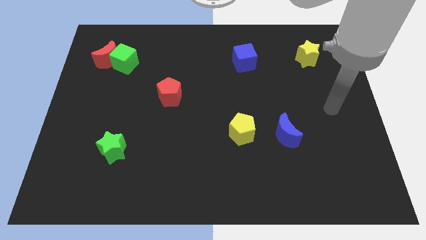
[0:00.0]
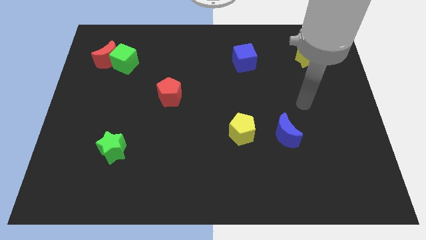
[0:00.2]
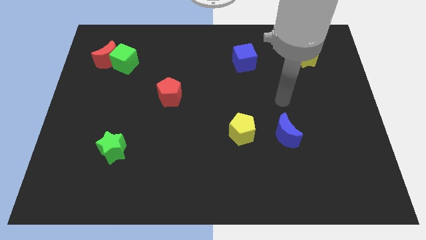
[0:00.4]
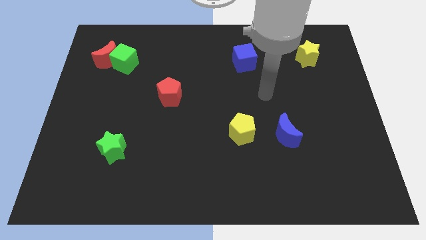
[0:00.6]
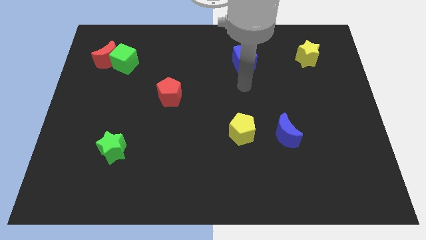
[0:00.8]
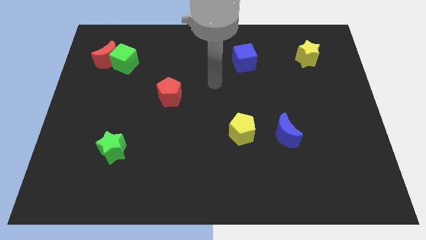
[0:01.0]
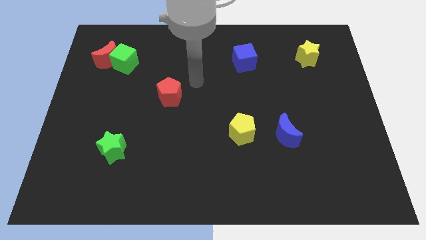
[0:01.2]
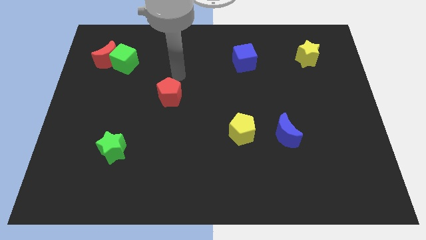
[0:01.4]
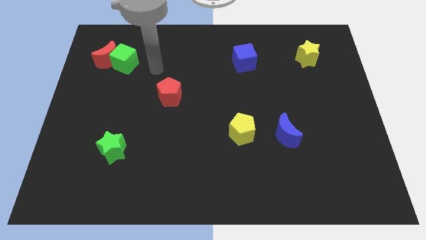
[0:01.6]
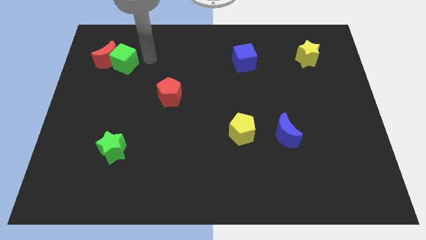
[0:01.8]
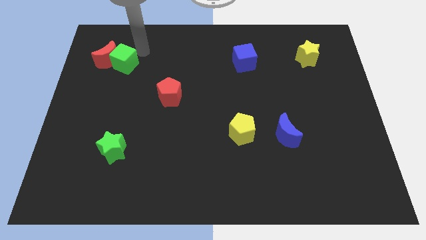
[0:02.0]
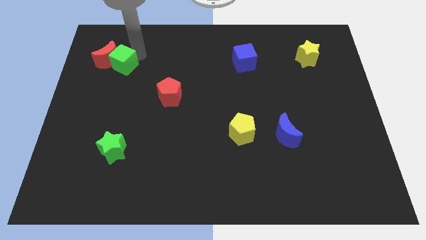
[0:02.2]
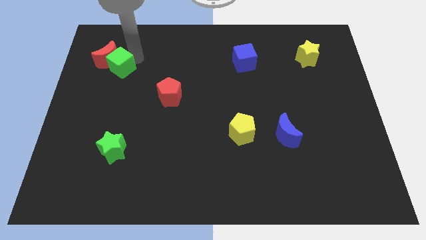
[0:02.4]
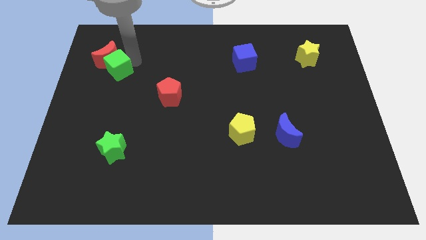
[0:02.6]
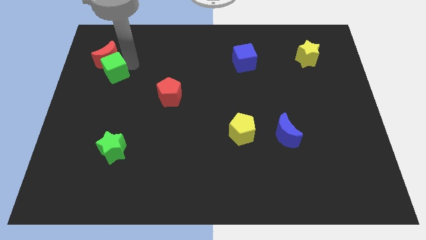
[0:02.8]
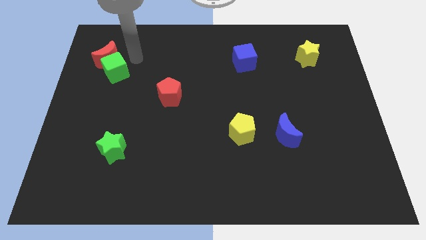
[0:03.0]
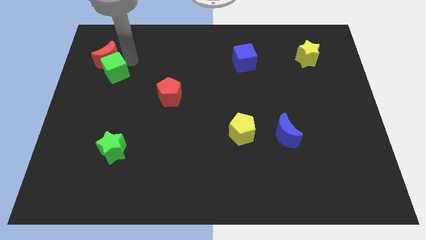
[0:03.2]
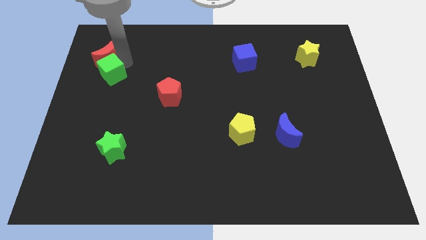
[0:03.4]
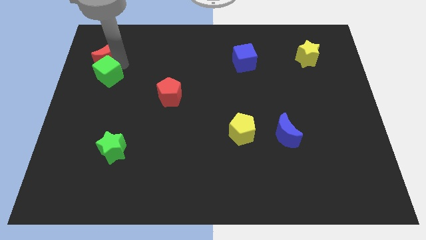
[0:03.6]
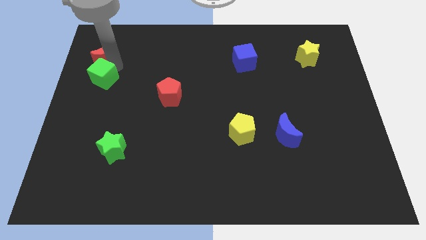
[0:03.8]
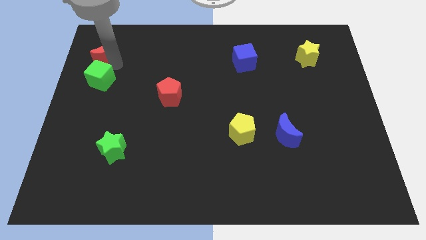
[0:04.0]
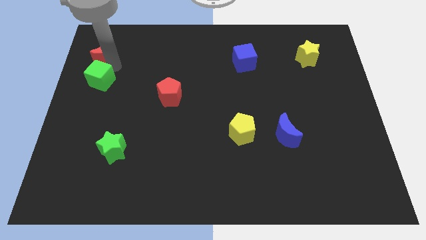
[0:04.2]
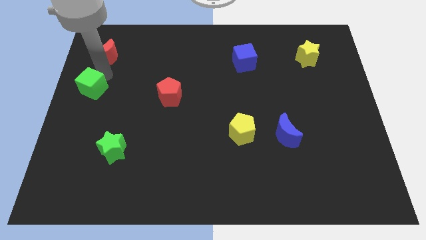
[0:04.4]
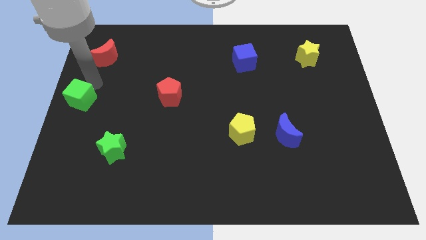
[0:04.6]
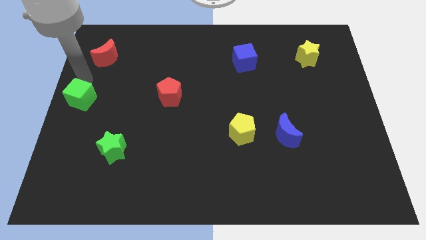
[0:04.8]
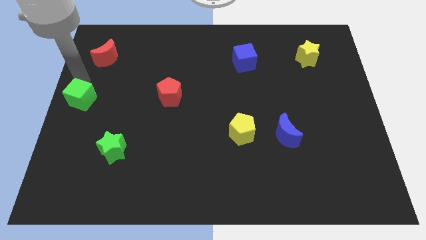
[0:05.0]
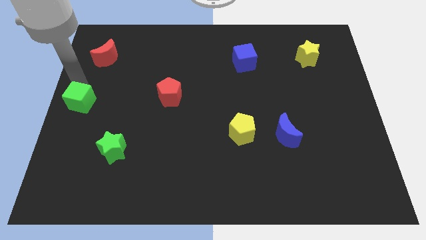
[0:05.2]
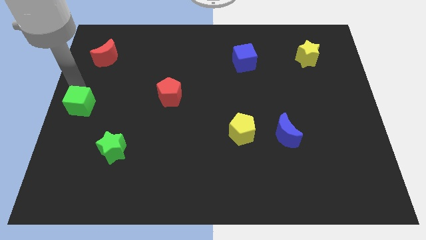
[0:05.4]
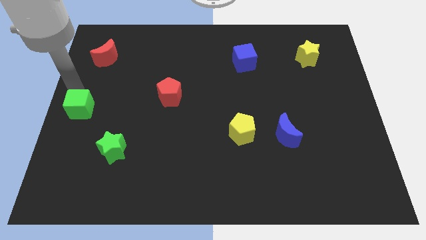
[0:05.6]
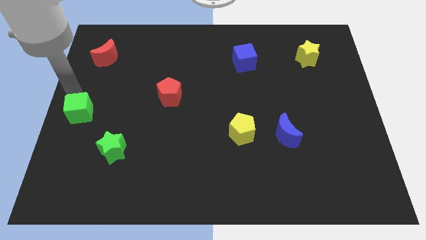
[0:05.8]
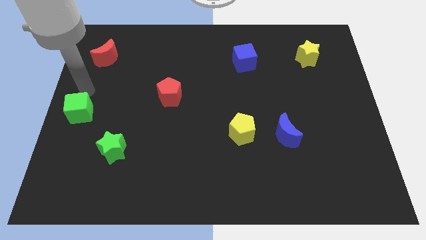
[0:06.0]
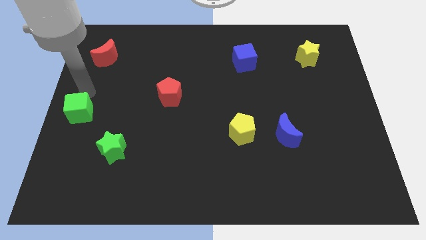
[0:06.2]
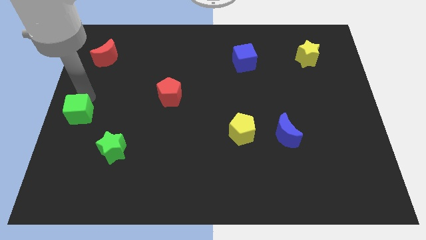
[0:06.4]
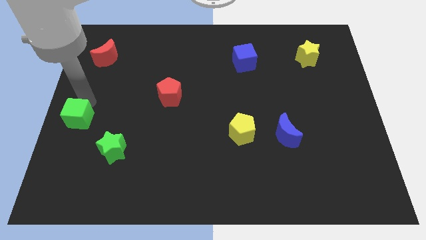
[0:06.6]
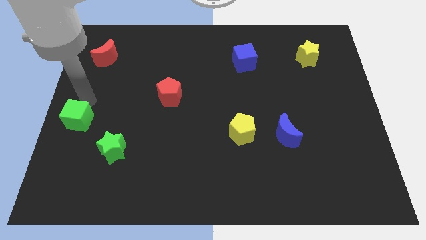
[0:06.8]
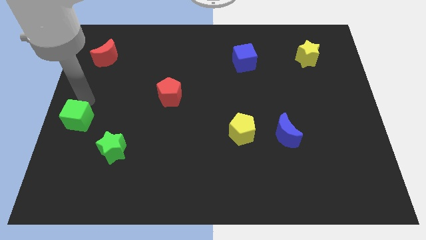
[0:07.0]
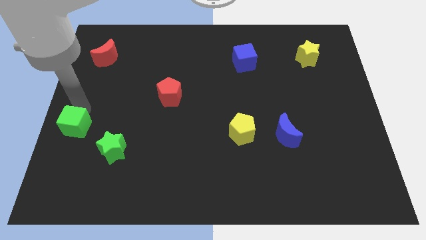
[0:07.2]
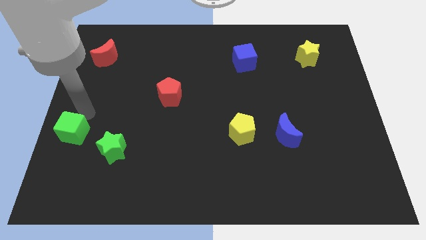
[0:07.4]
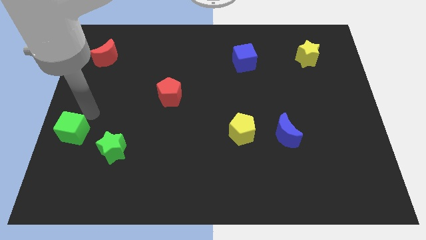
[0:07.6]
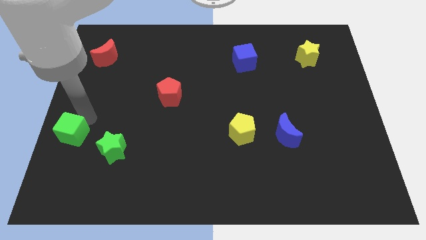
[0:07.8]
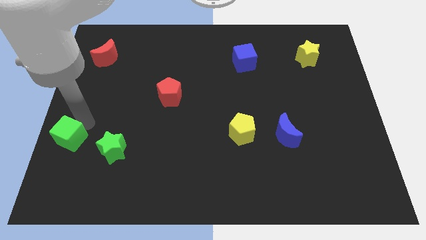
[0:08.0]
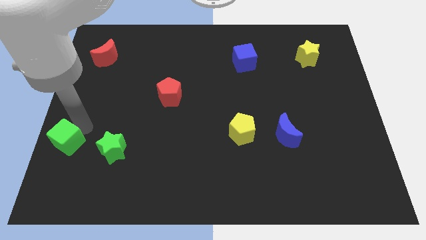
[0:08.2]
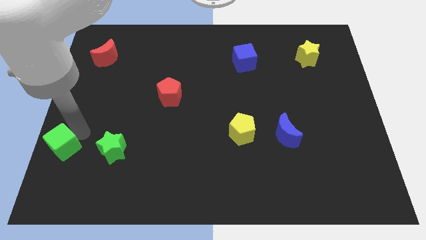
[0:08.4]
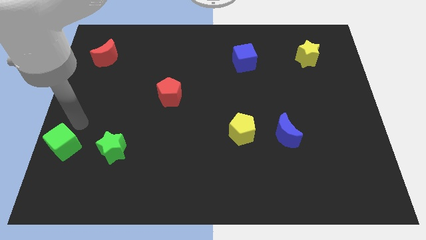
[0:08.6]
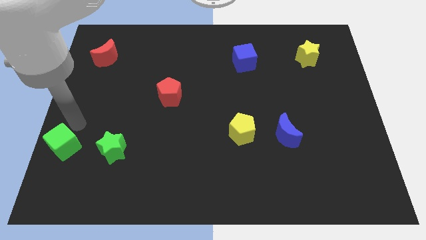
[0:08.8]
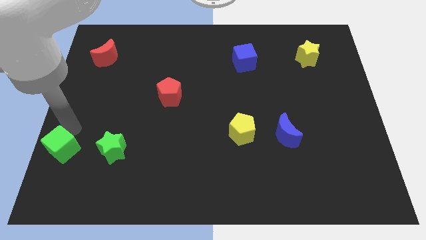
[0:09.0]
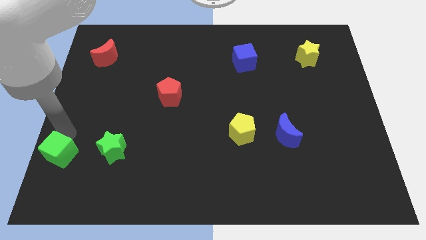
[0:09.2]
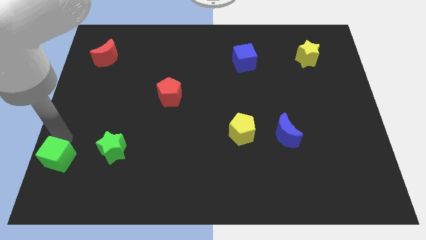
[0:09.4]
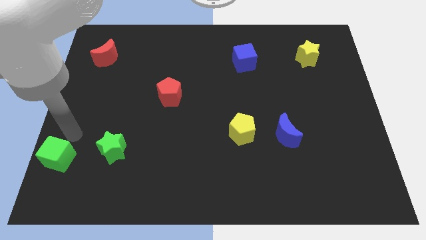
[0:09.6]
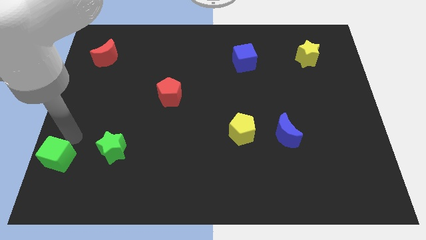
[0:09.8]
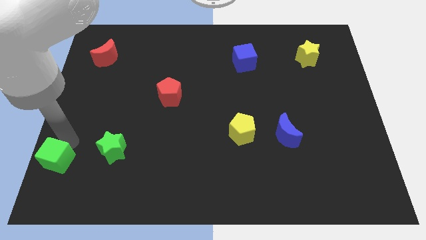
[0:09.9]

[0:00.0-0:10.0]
move the green cube to the bottom left of the board

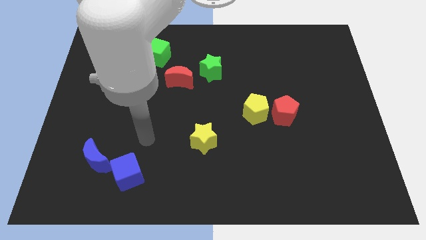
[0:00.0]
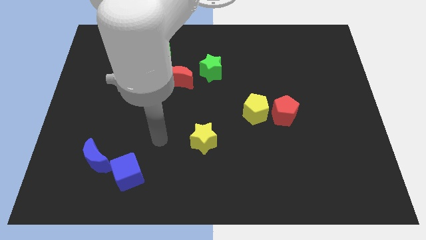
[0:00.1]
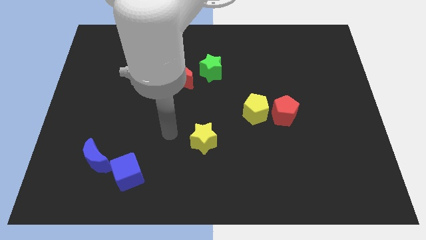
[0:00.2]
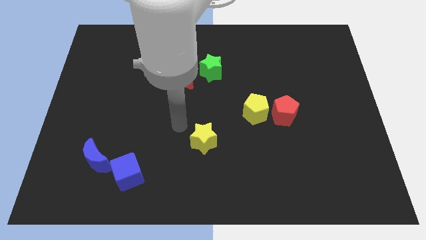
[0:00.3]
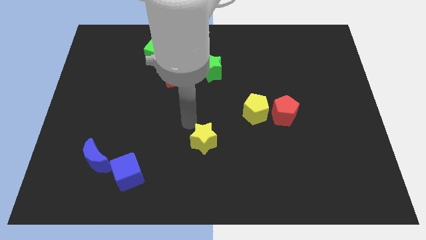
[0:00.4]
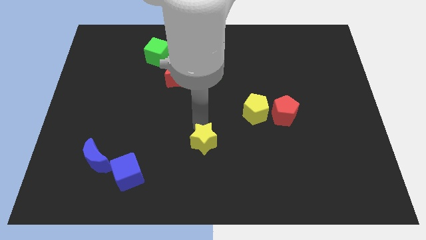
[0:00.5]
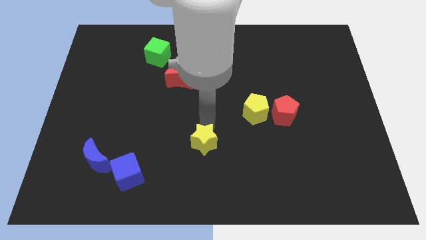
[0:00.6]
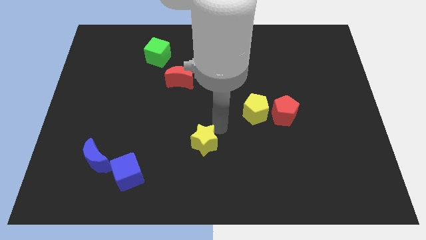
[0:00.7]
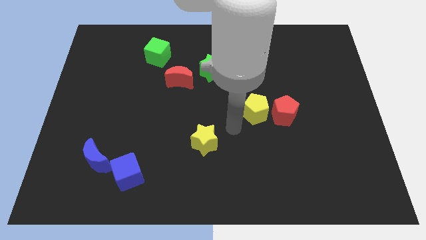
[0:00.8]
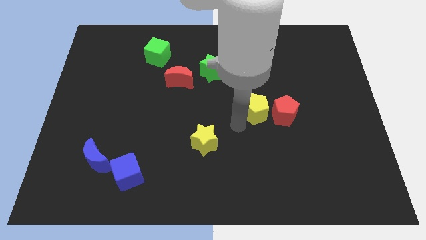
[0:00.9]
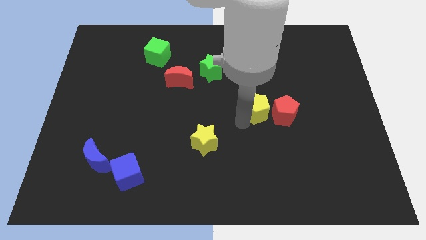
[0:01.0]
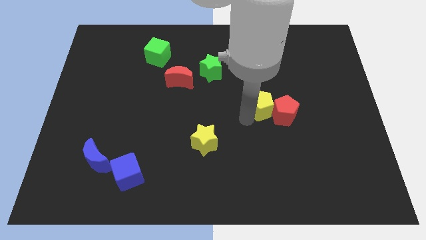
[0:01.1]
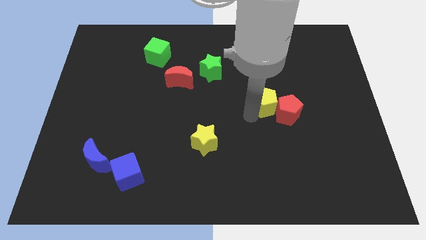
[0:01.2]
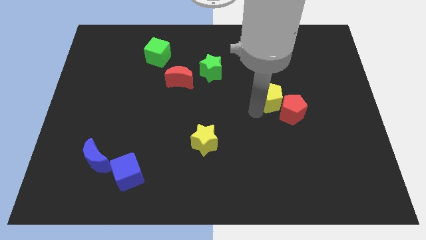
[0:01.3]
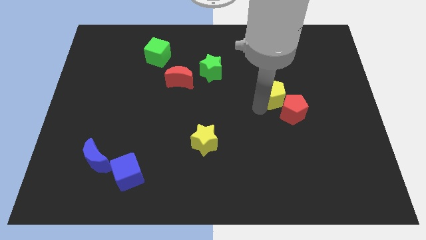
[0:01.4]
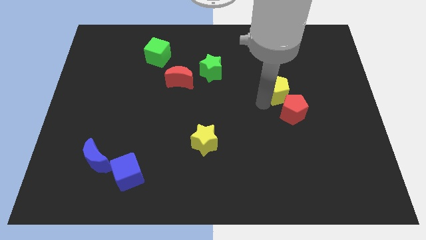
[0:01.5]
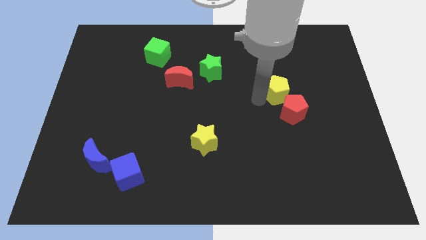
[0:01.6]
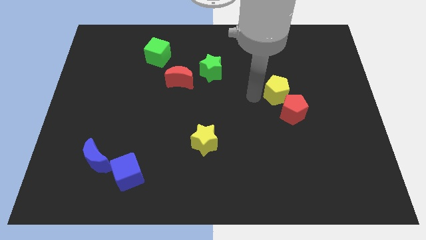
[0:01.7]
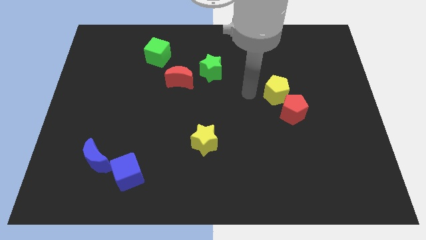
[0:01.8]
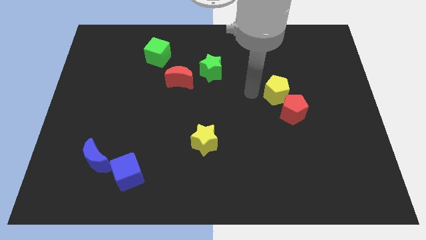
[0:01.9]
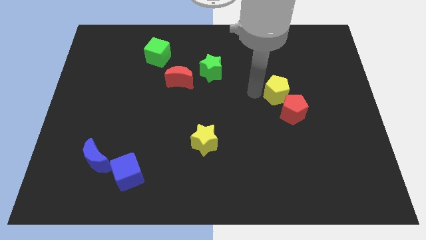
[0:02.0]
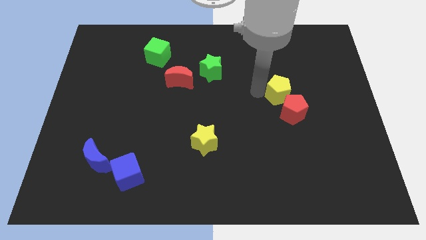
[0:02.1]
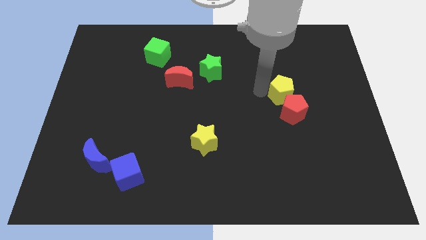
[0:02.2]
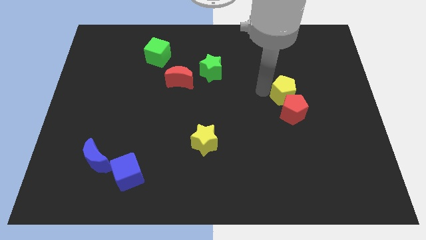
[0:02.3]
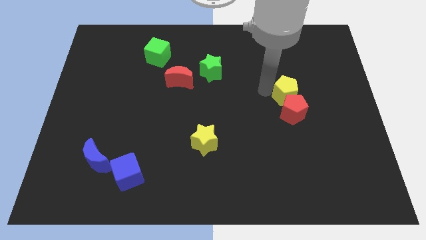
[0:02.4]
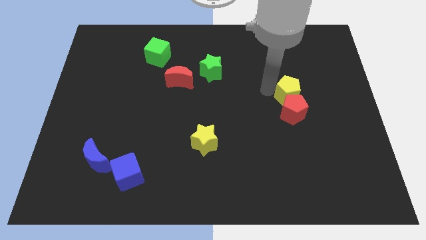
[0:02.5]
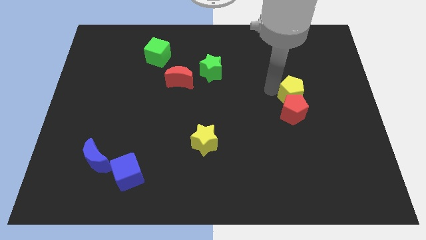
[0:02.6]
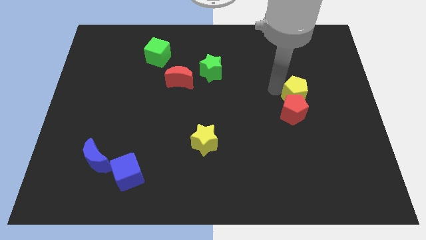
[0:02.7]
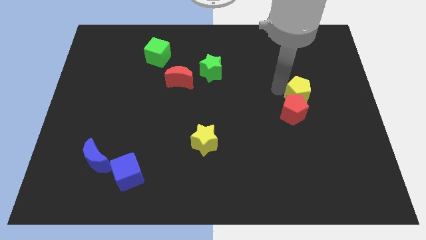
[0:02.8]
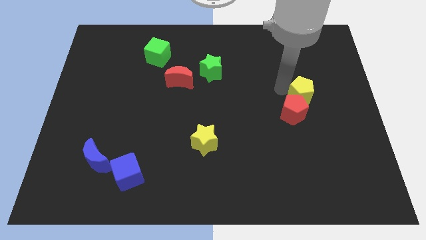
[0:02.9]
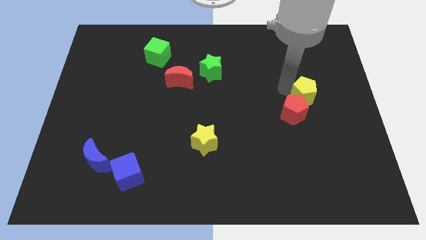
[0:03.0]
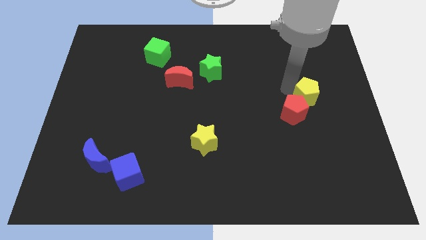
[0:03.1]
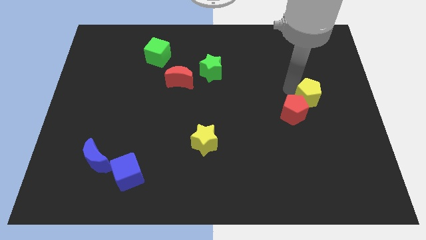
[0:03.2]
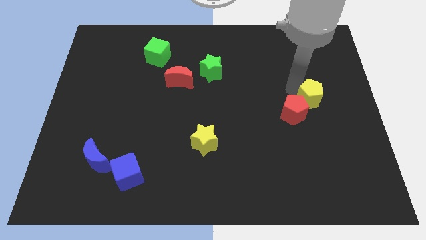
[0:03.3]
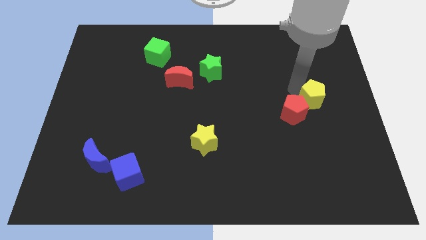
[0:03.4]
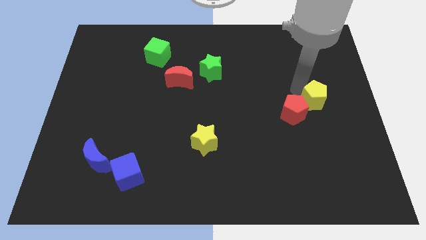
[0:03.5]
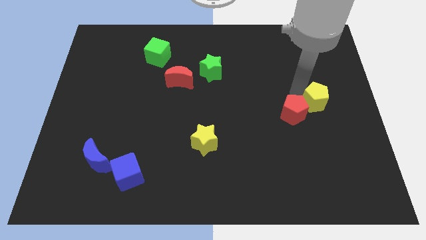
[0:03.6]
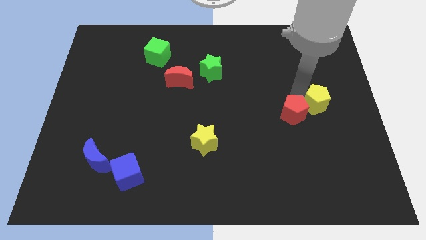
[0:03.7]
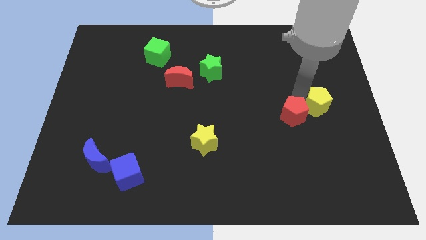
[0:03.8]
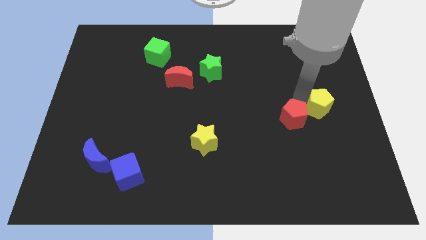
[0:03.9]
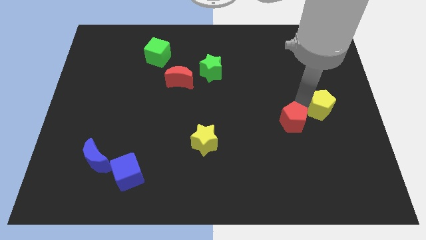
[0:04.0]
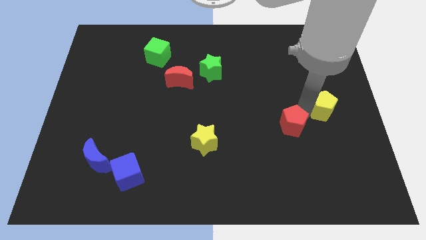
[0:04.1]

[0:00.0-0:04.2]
push the yellow pentagon to the center right
